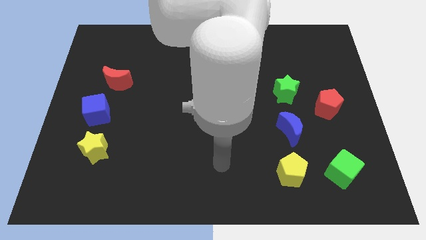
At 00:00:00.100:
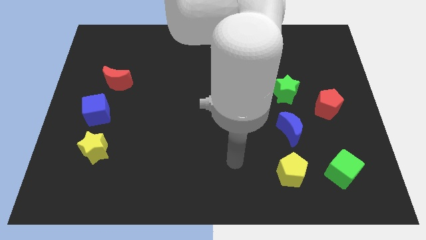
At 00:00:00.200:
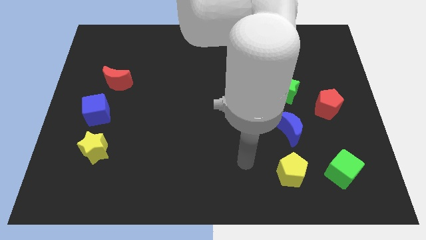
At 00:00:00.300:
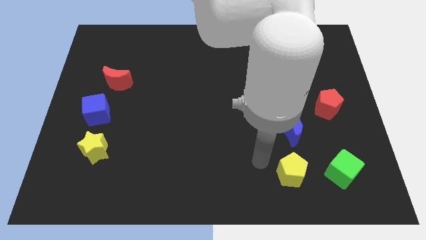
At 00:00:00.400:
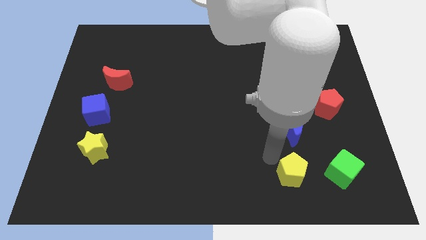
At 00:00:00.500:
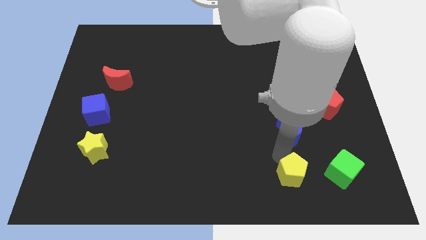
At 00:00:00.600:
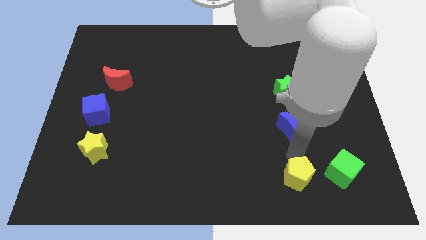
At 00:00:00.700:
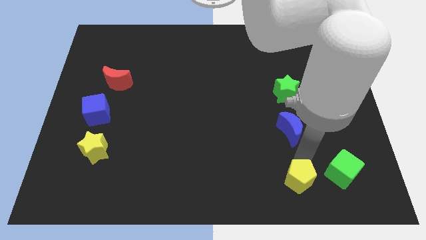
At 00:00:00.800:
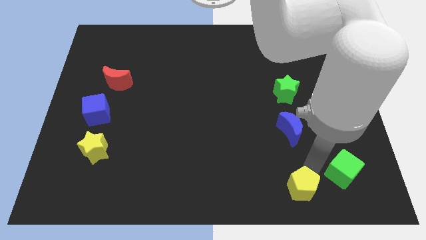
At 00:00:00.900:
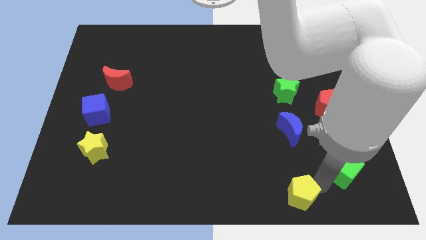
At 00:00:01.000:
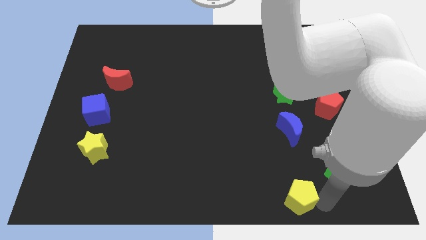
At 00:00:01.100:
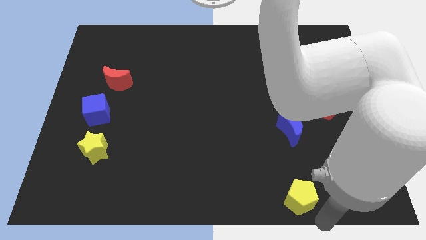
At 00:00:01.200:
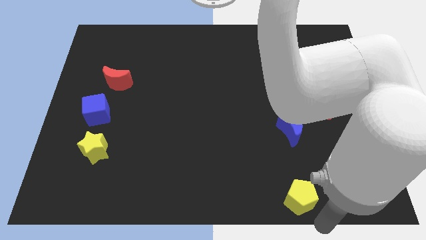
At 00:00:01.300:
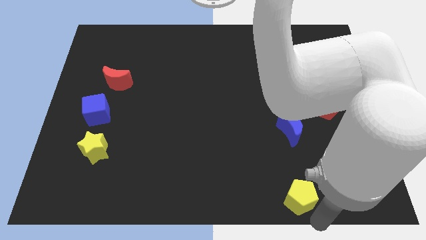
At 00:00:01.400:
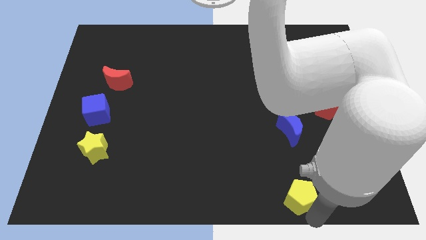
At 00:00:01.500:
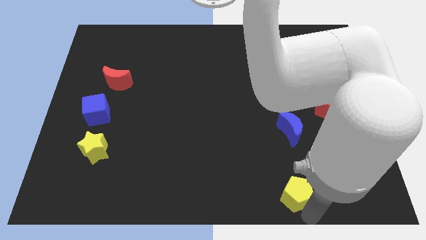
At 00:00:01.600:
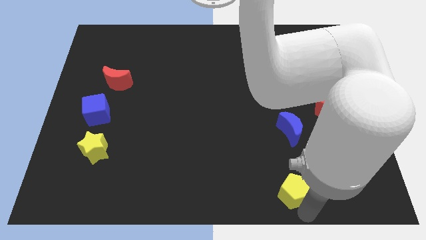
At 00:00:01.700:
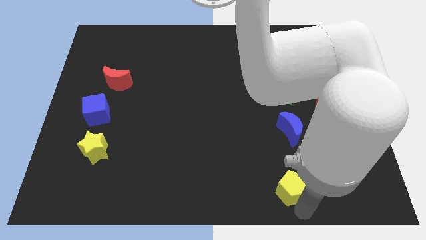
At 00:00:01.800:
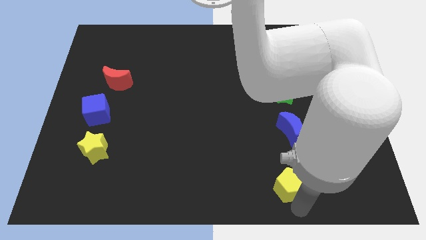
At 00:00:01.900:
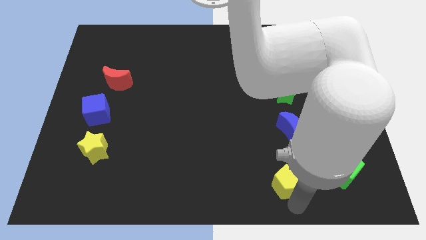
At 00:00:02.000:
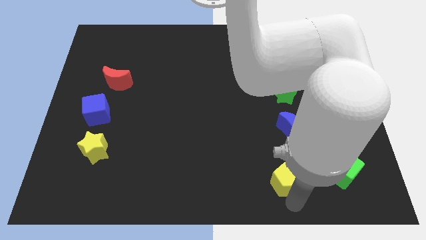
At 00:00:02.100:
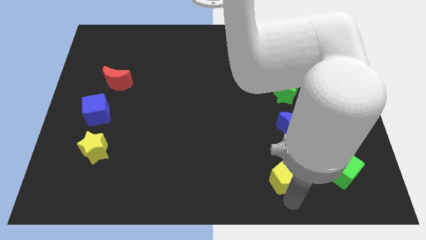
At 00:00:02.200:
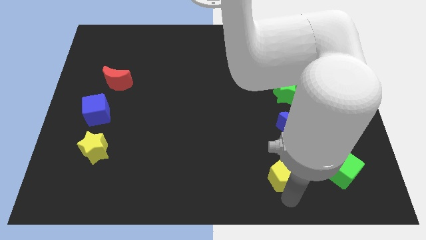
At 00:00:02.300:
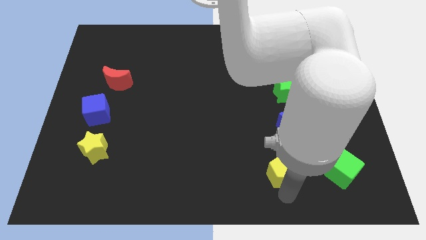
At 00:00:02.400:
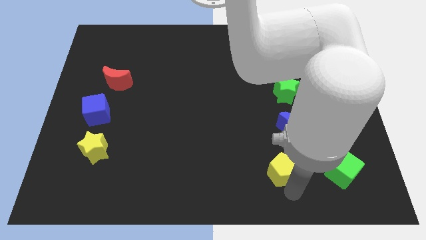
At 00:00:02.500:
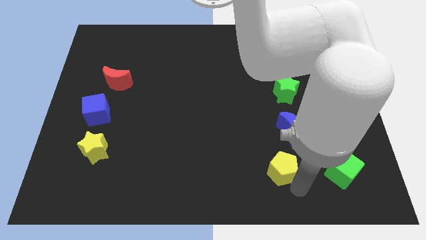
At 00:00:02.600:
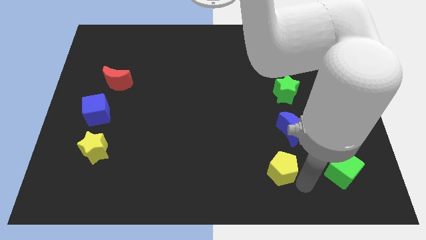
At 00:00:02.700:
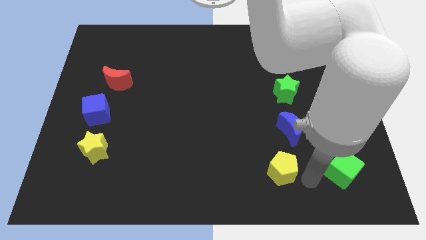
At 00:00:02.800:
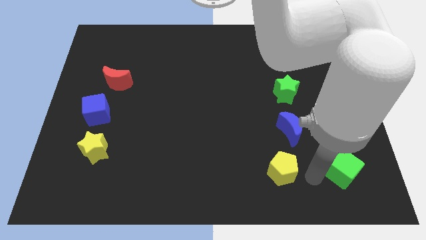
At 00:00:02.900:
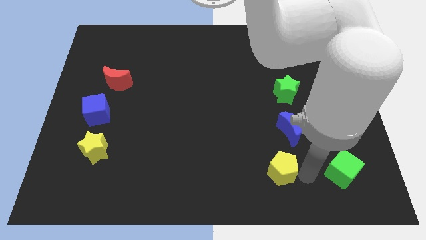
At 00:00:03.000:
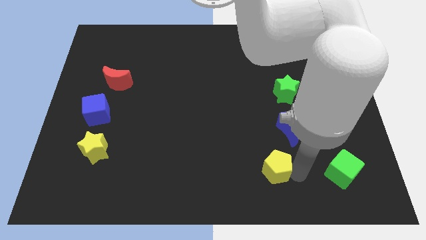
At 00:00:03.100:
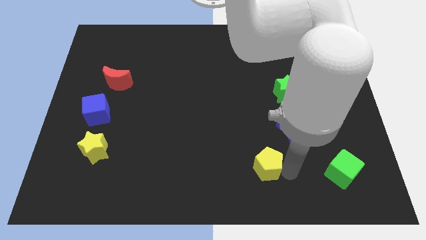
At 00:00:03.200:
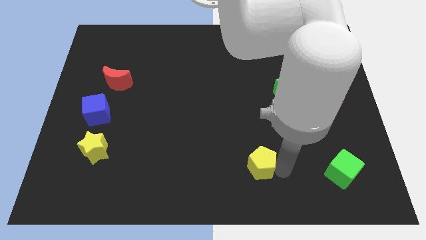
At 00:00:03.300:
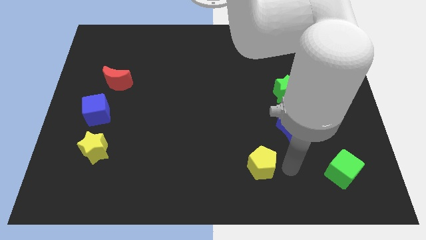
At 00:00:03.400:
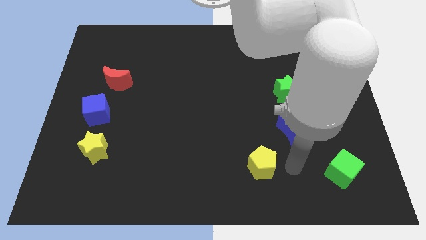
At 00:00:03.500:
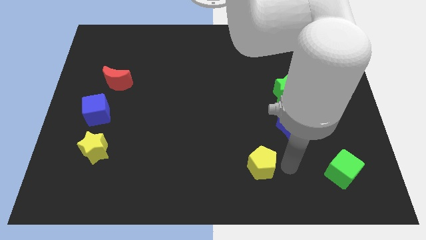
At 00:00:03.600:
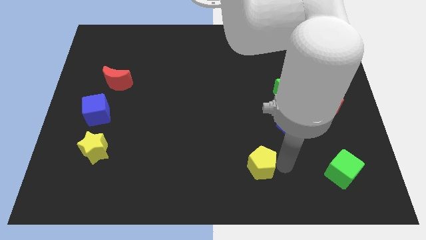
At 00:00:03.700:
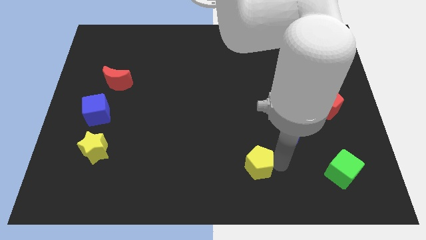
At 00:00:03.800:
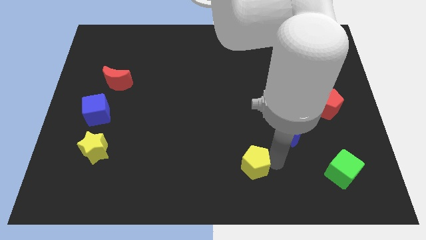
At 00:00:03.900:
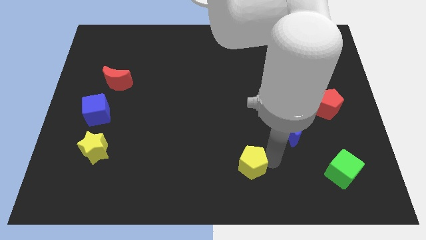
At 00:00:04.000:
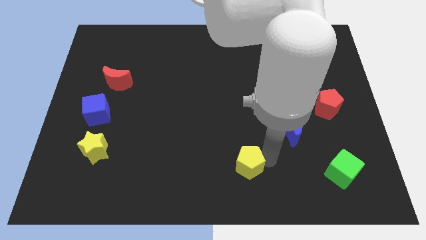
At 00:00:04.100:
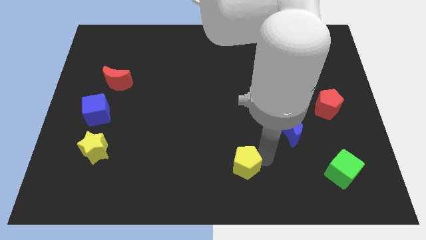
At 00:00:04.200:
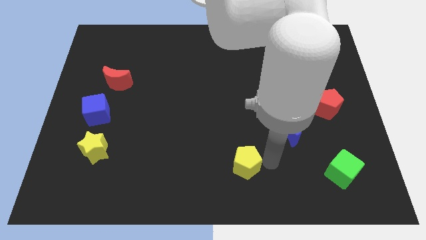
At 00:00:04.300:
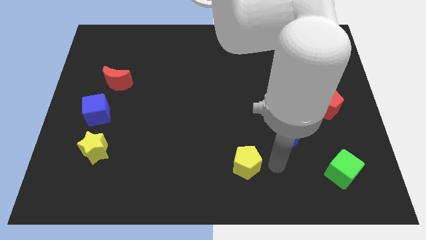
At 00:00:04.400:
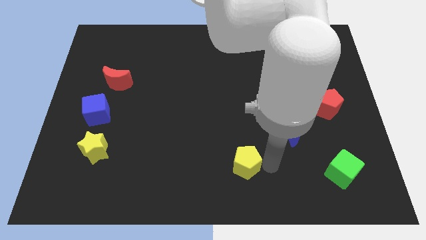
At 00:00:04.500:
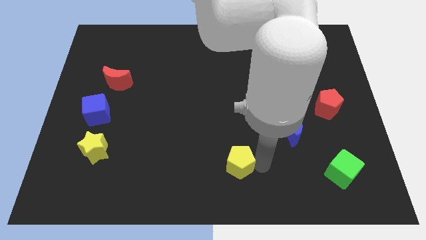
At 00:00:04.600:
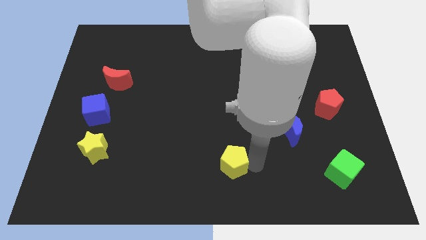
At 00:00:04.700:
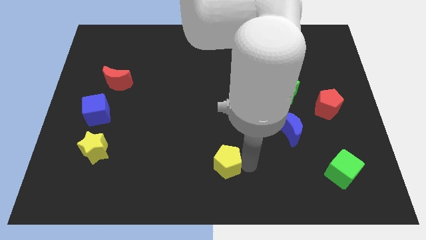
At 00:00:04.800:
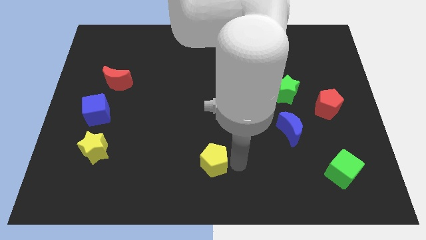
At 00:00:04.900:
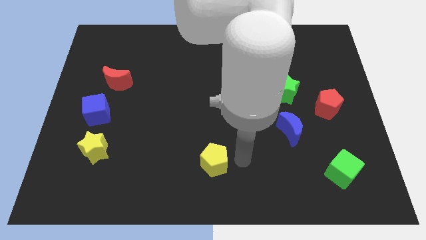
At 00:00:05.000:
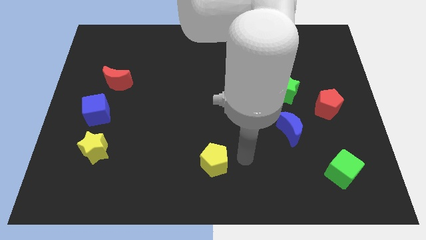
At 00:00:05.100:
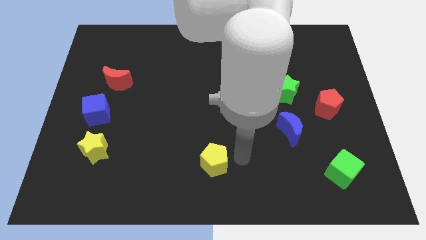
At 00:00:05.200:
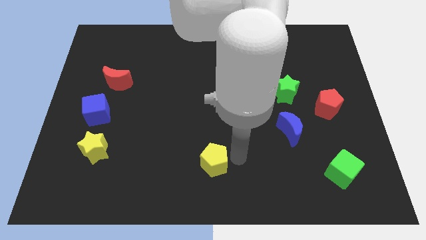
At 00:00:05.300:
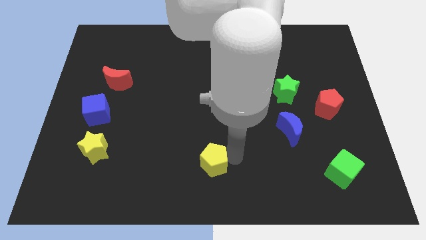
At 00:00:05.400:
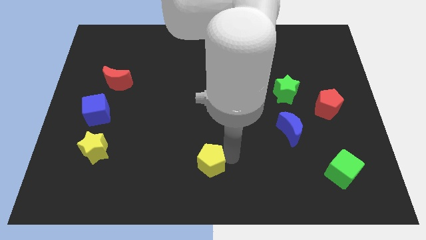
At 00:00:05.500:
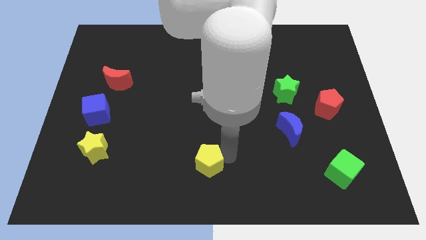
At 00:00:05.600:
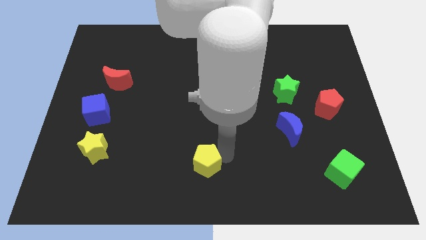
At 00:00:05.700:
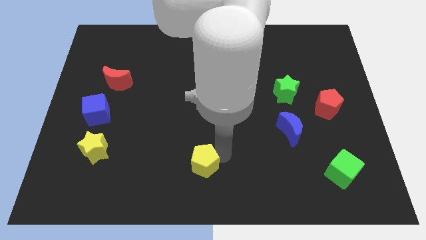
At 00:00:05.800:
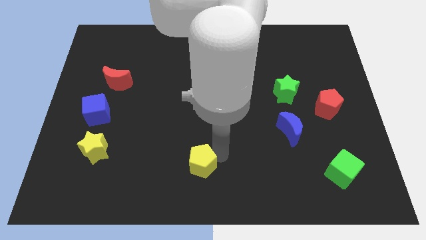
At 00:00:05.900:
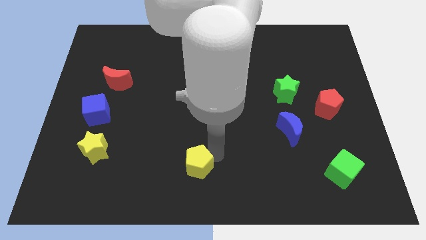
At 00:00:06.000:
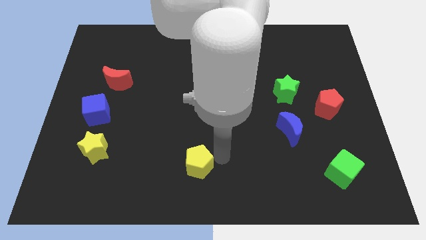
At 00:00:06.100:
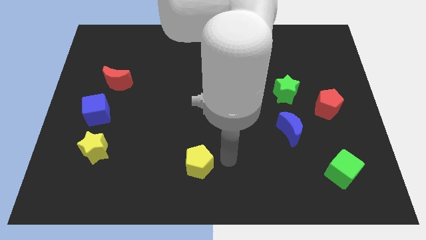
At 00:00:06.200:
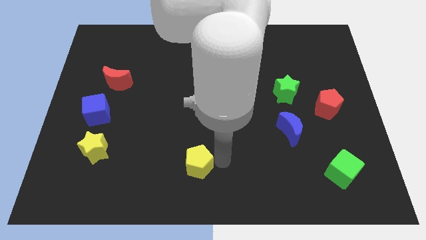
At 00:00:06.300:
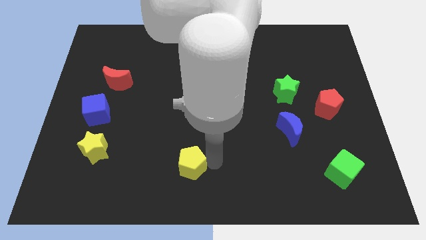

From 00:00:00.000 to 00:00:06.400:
push the yellow pentagon to the left

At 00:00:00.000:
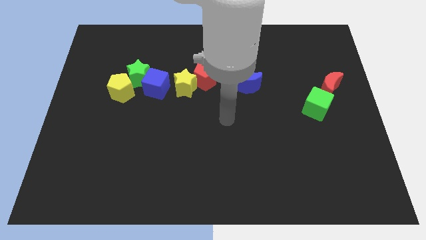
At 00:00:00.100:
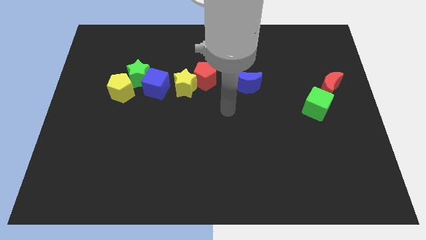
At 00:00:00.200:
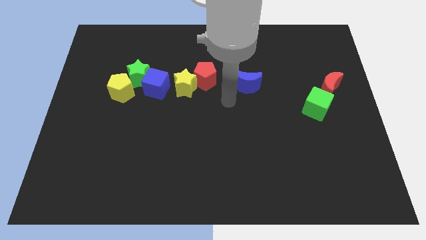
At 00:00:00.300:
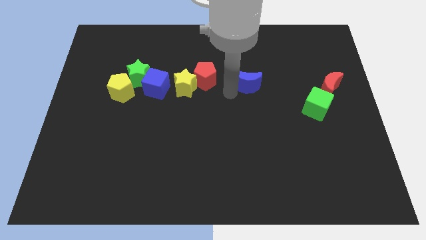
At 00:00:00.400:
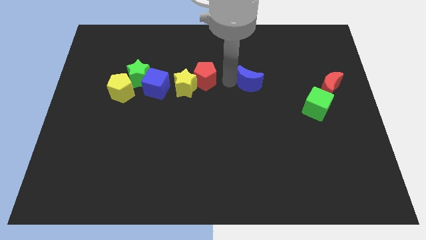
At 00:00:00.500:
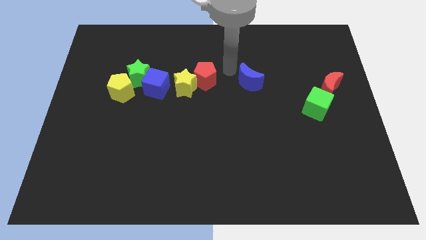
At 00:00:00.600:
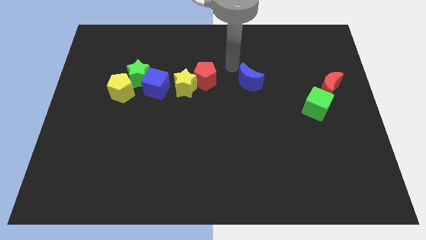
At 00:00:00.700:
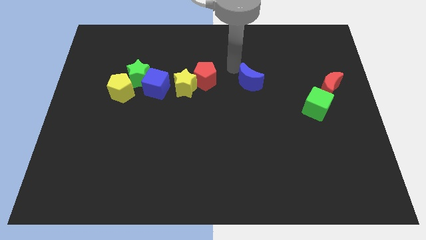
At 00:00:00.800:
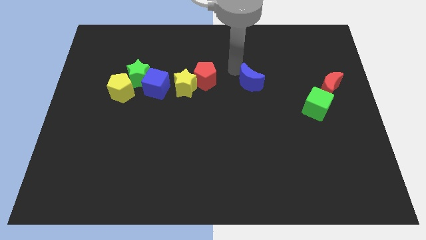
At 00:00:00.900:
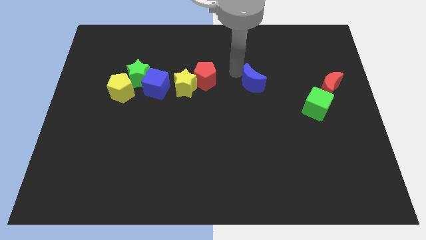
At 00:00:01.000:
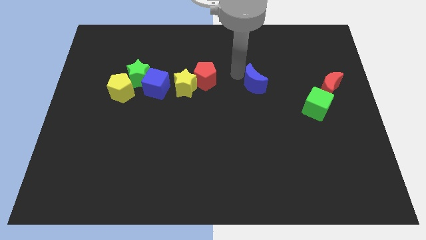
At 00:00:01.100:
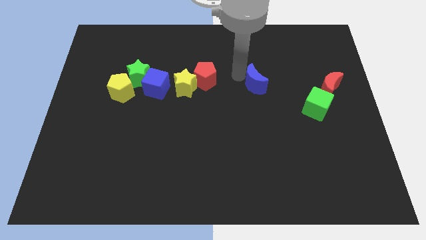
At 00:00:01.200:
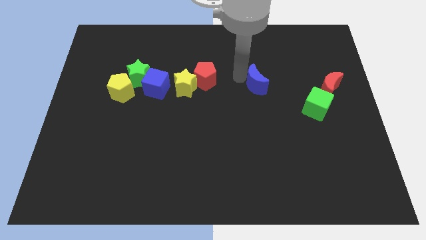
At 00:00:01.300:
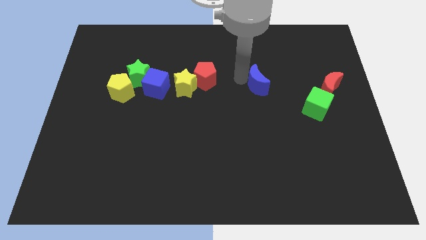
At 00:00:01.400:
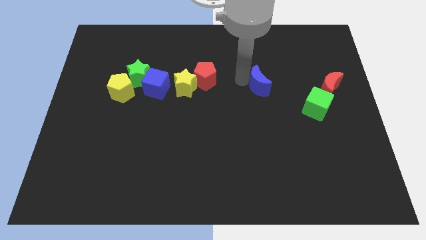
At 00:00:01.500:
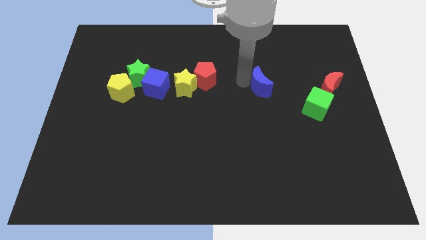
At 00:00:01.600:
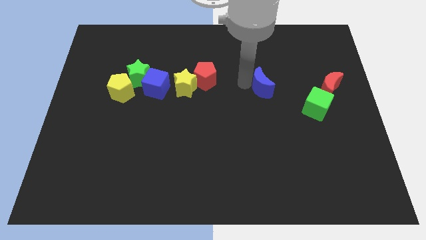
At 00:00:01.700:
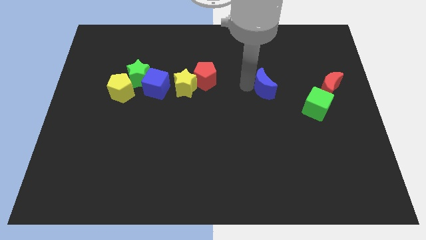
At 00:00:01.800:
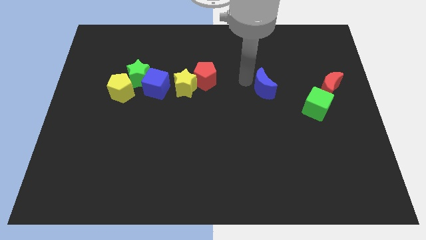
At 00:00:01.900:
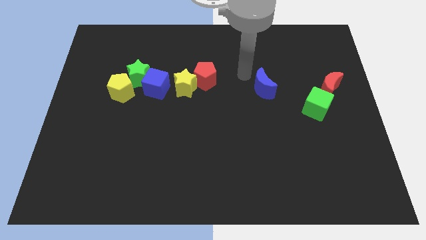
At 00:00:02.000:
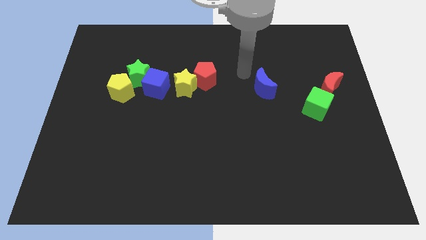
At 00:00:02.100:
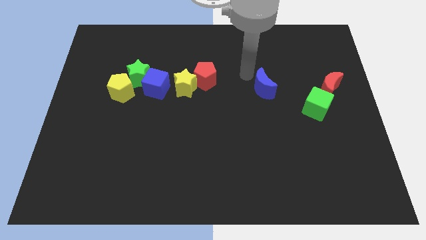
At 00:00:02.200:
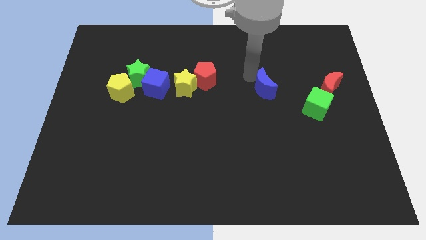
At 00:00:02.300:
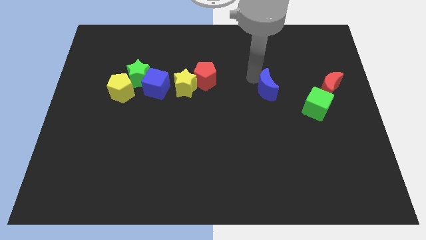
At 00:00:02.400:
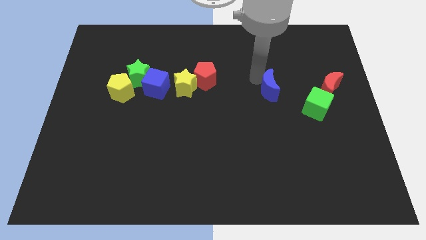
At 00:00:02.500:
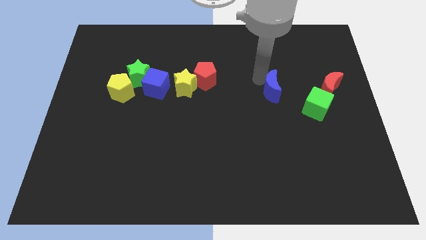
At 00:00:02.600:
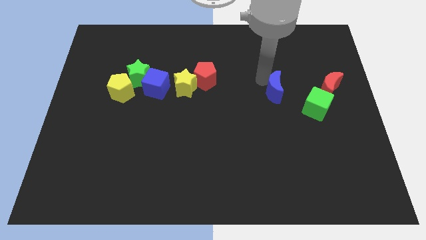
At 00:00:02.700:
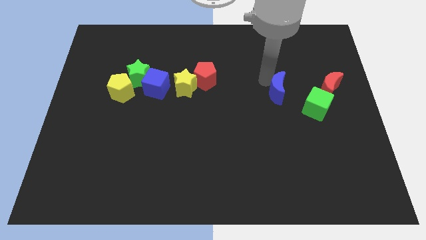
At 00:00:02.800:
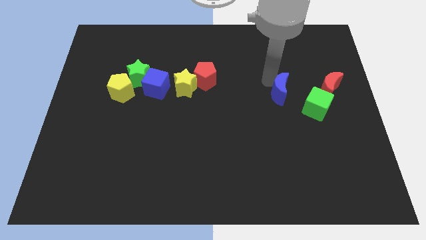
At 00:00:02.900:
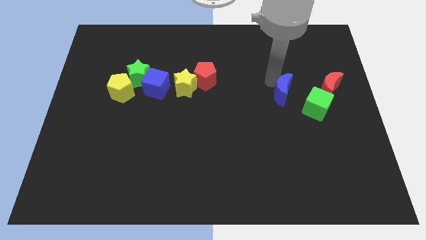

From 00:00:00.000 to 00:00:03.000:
slightly move the blue moon down and to the right
